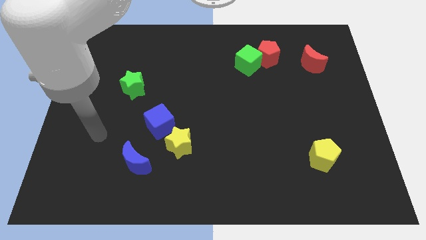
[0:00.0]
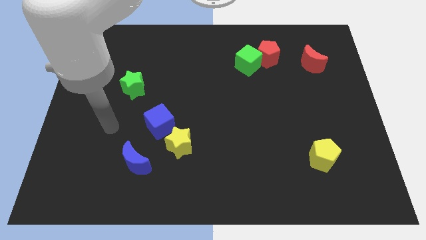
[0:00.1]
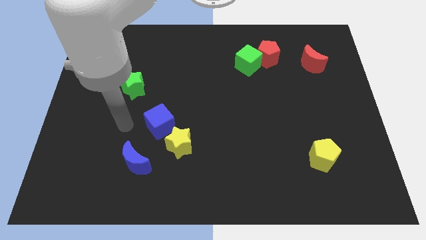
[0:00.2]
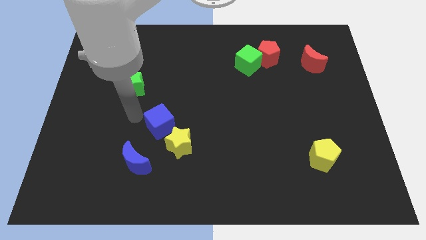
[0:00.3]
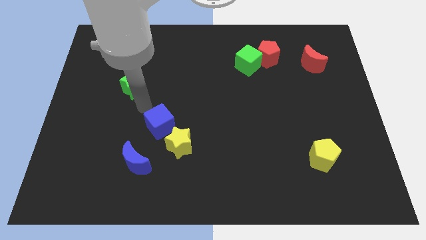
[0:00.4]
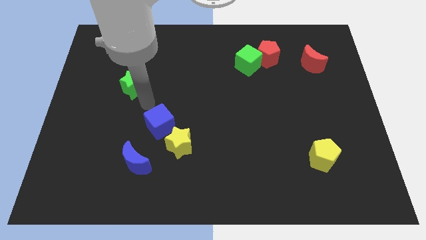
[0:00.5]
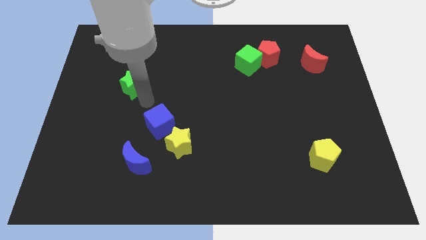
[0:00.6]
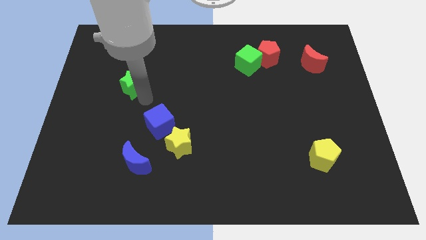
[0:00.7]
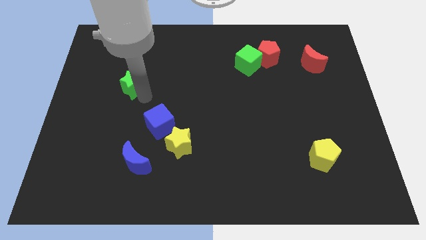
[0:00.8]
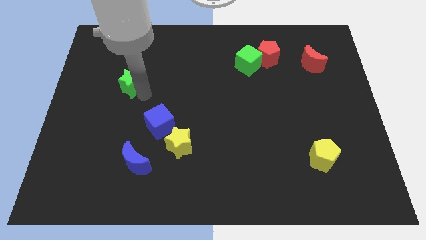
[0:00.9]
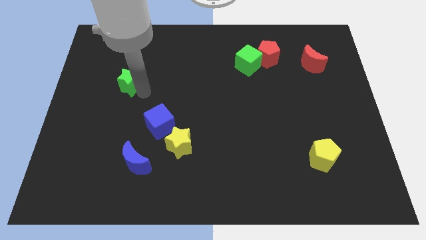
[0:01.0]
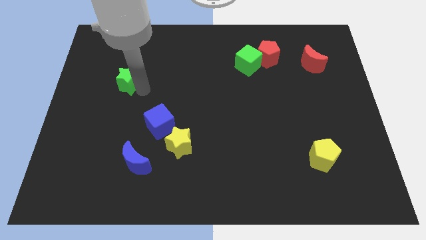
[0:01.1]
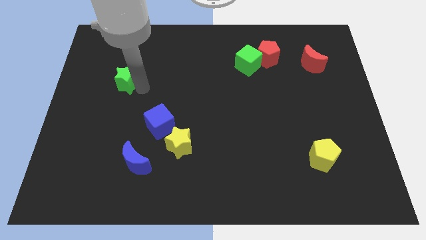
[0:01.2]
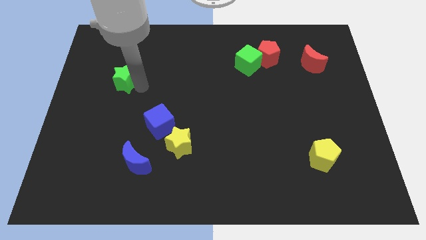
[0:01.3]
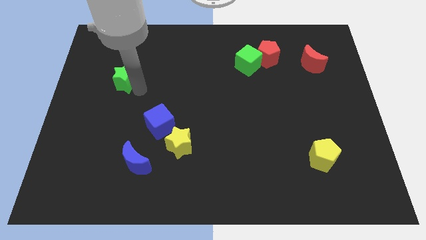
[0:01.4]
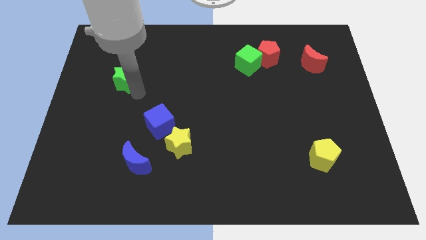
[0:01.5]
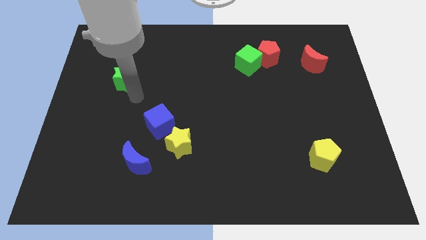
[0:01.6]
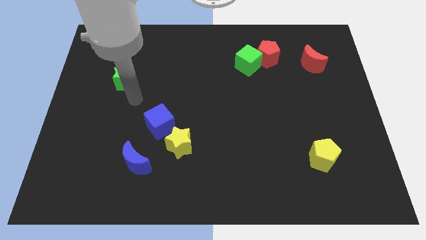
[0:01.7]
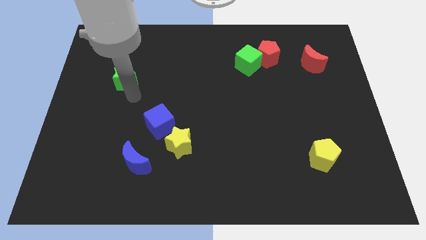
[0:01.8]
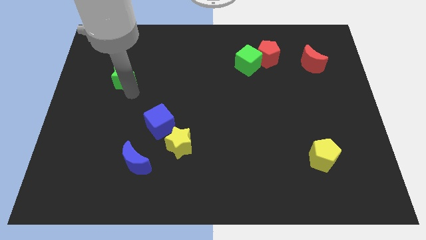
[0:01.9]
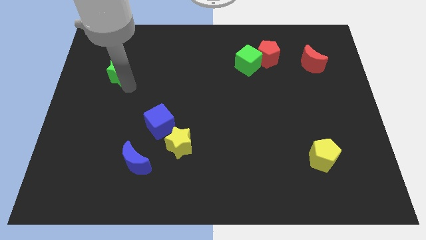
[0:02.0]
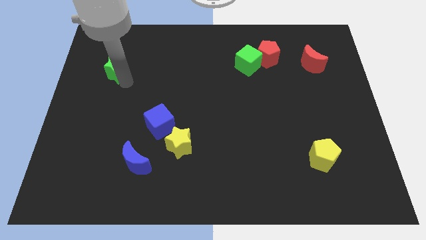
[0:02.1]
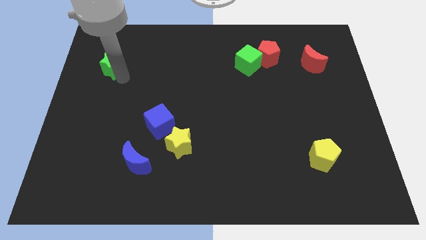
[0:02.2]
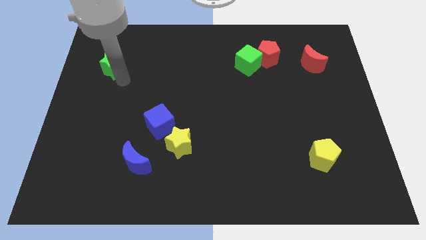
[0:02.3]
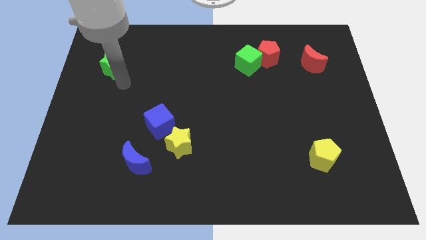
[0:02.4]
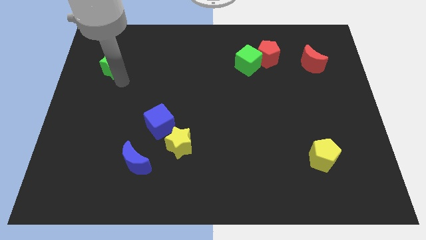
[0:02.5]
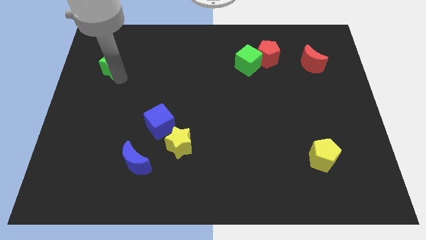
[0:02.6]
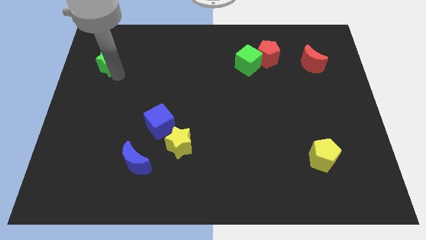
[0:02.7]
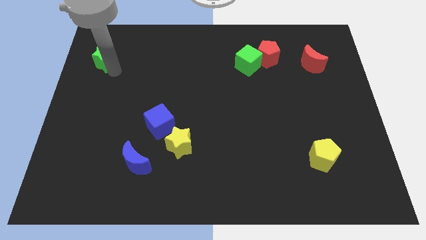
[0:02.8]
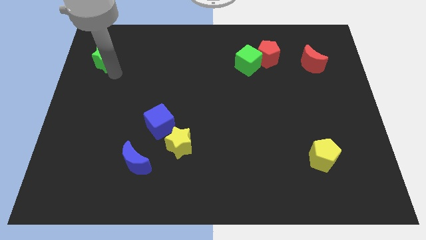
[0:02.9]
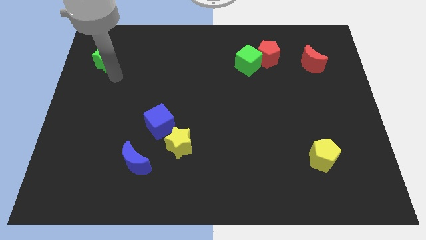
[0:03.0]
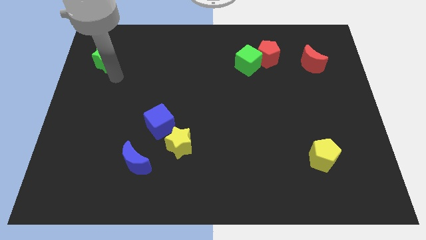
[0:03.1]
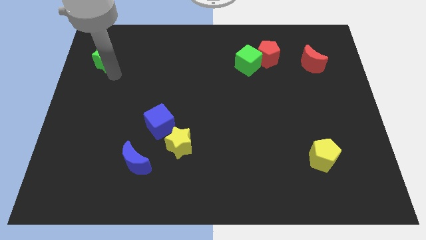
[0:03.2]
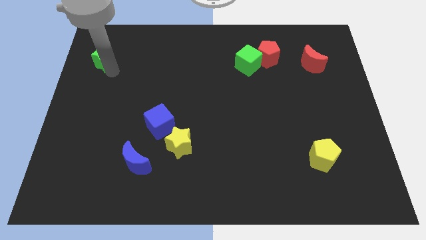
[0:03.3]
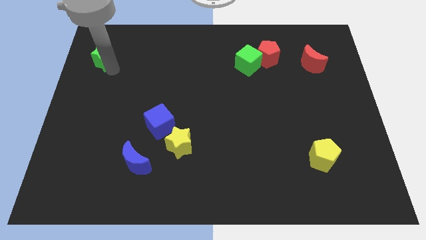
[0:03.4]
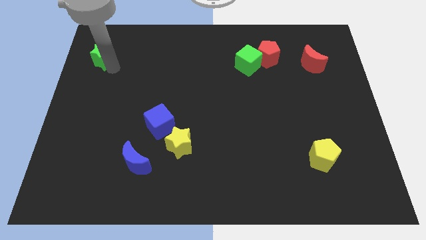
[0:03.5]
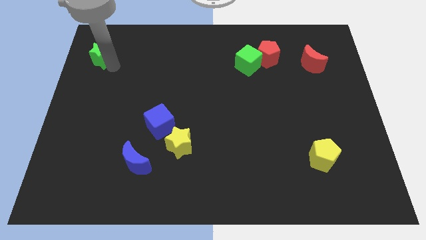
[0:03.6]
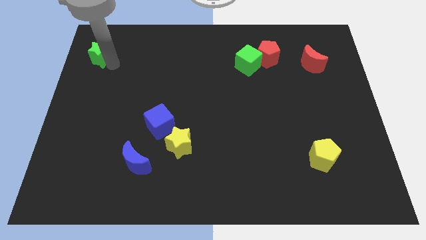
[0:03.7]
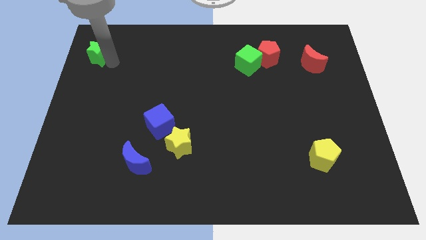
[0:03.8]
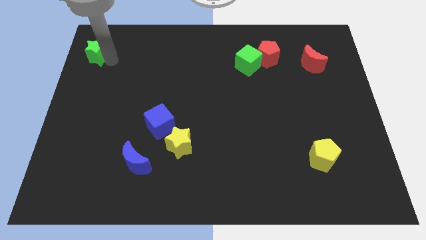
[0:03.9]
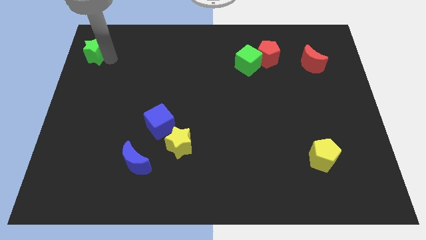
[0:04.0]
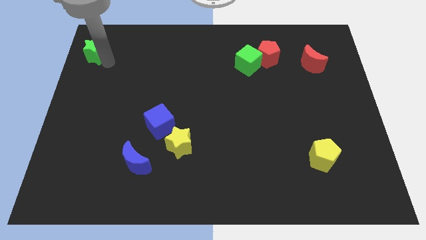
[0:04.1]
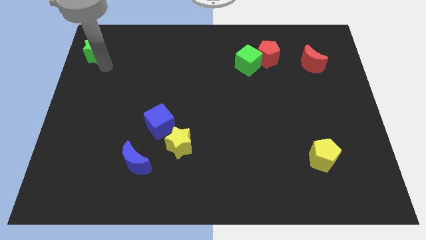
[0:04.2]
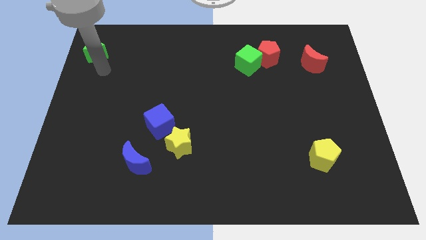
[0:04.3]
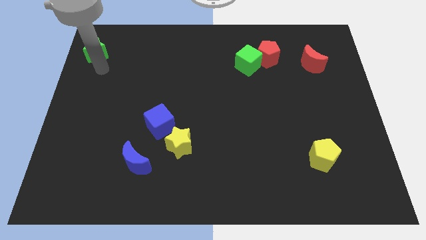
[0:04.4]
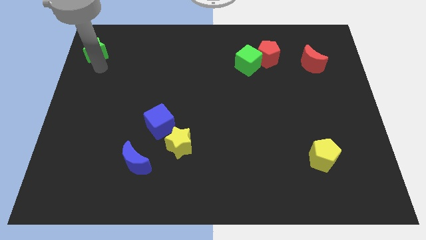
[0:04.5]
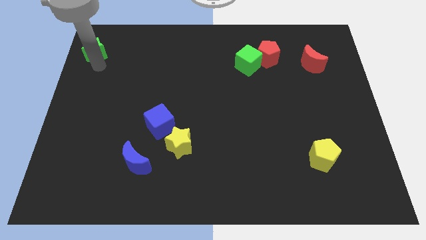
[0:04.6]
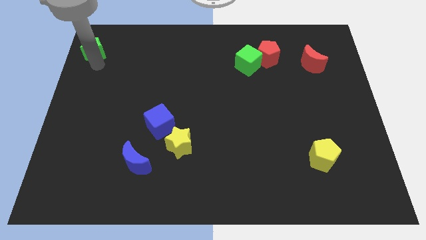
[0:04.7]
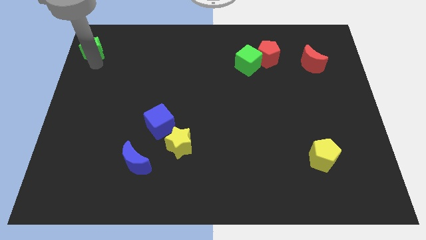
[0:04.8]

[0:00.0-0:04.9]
move the green star to the upper left corner

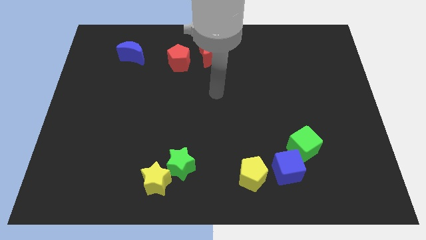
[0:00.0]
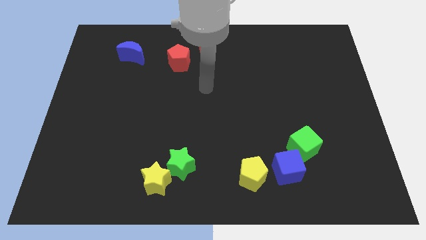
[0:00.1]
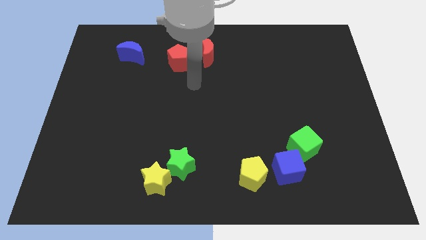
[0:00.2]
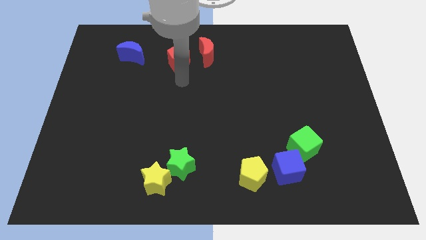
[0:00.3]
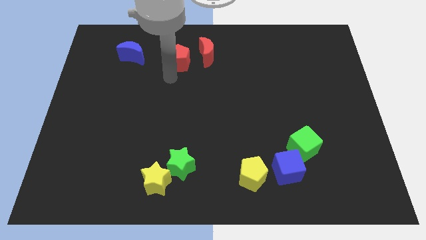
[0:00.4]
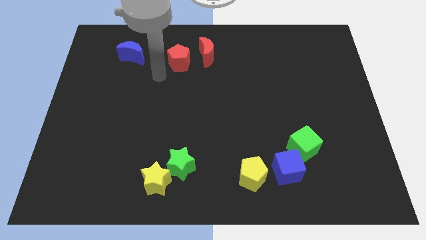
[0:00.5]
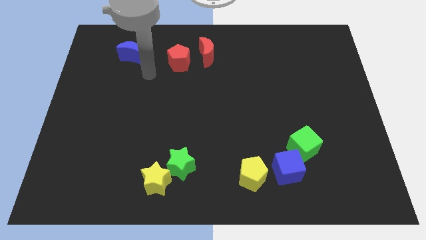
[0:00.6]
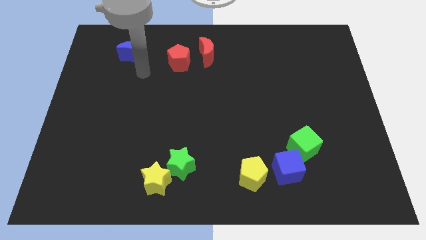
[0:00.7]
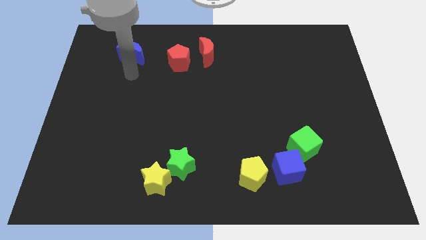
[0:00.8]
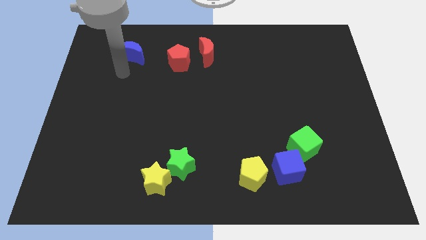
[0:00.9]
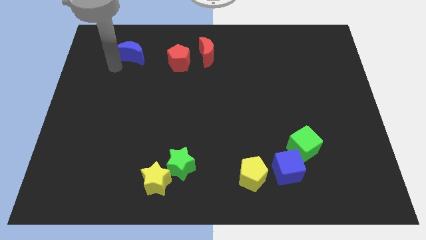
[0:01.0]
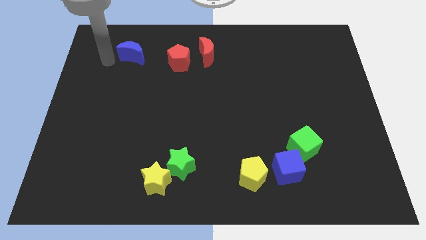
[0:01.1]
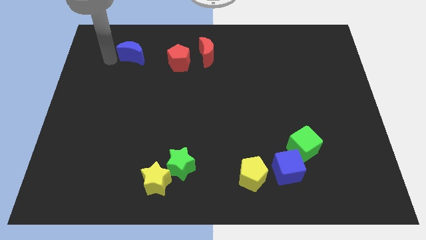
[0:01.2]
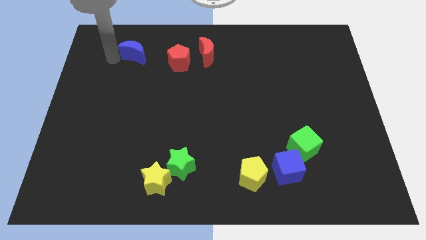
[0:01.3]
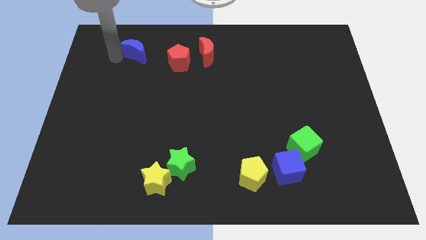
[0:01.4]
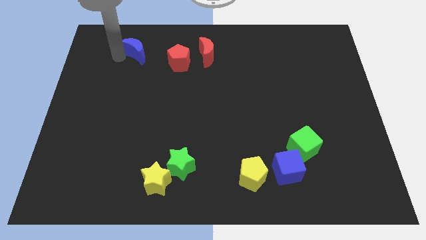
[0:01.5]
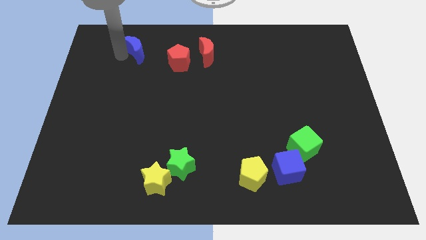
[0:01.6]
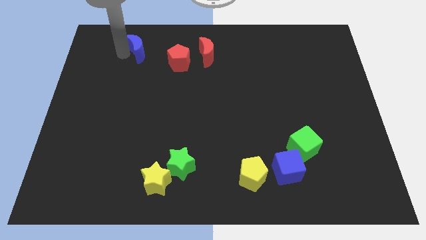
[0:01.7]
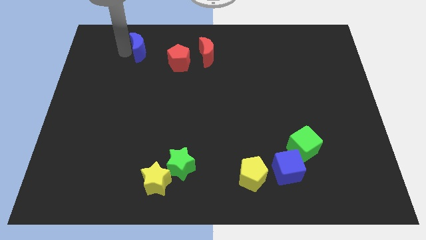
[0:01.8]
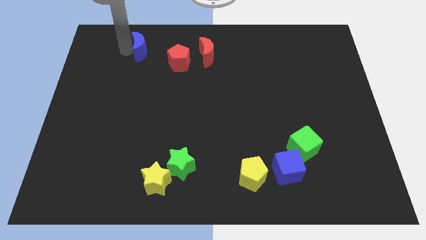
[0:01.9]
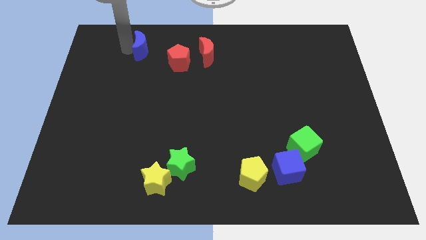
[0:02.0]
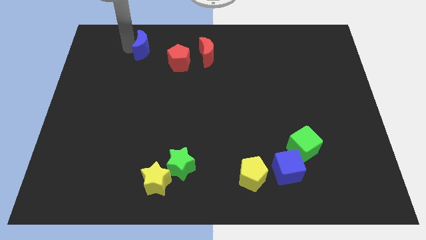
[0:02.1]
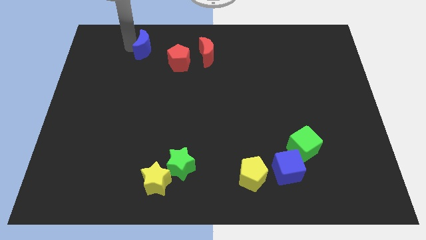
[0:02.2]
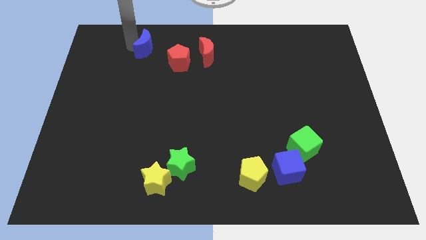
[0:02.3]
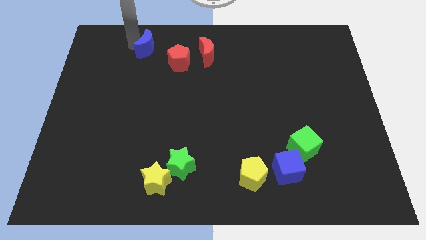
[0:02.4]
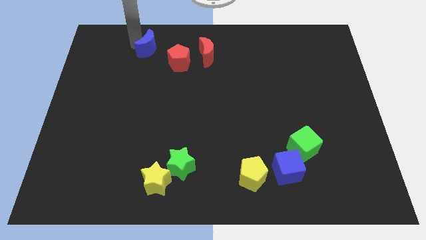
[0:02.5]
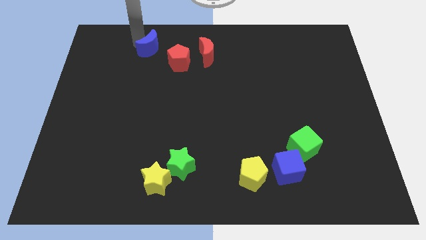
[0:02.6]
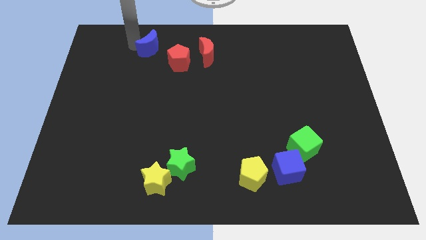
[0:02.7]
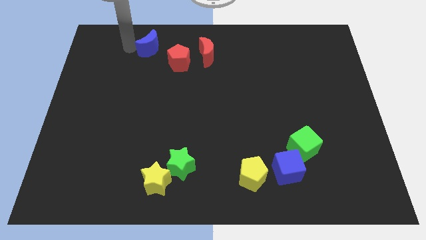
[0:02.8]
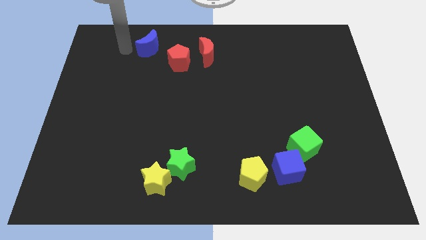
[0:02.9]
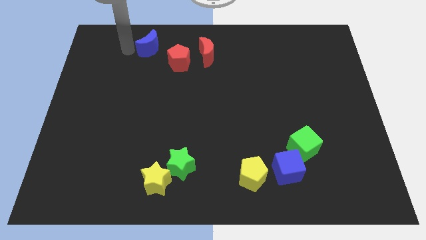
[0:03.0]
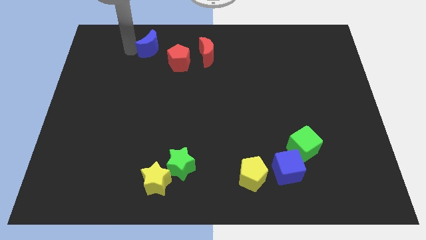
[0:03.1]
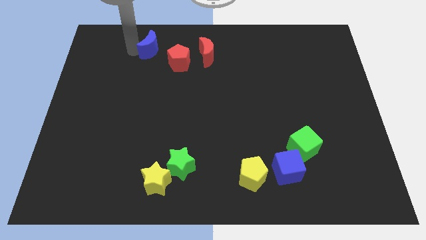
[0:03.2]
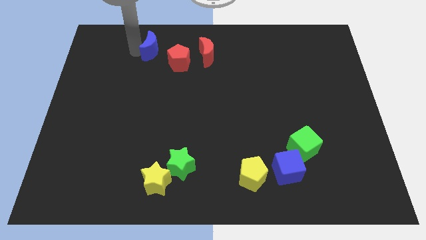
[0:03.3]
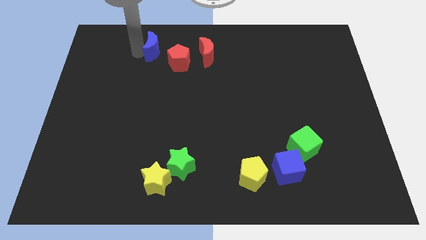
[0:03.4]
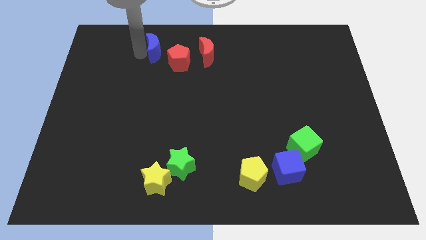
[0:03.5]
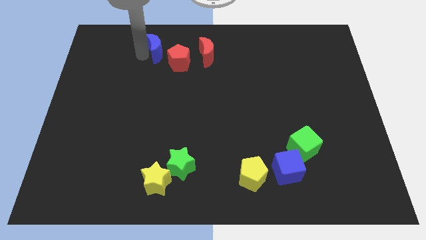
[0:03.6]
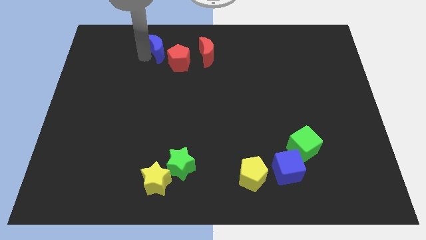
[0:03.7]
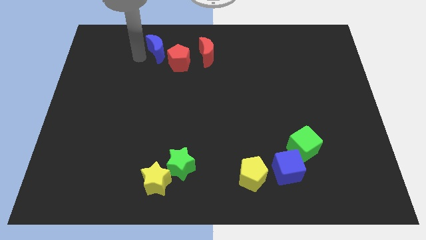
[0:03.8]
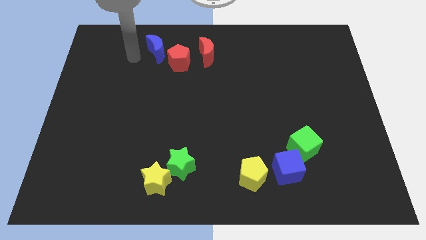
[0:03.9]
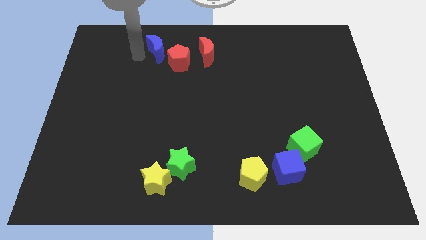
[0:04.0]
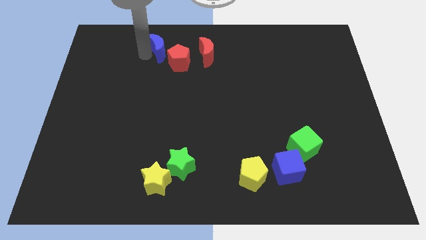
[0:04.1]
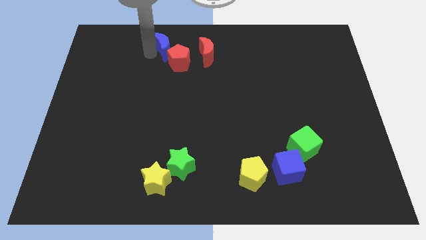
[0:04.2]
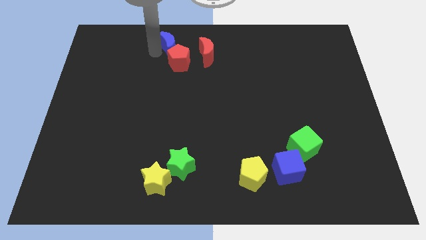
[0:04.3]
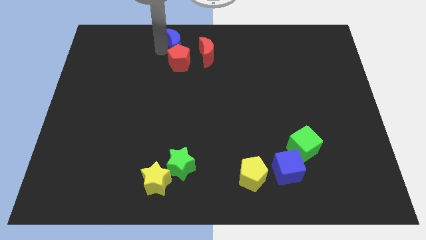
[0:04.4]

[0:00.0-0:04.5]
slide the blue moon to the top
